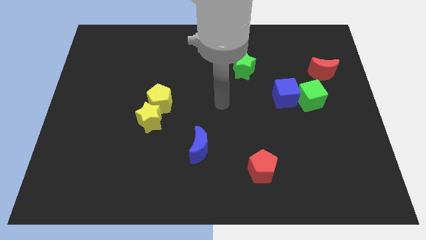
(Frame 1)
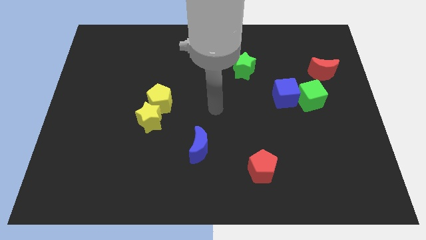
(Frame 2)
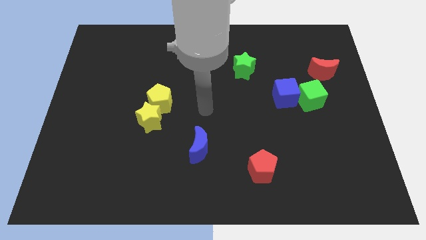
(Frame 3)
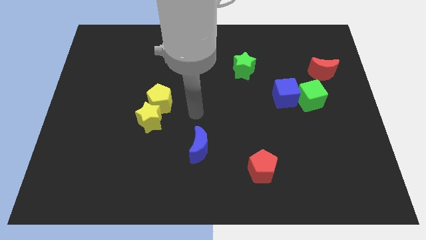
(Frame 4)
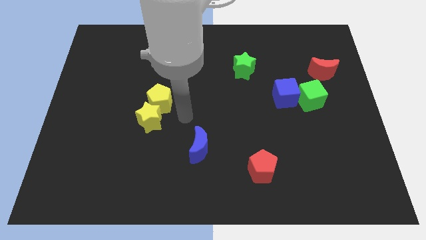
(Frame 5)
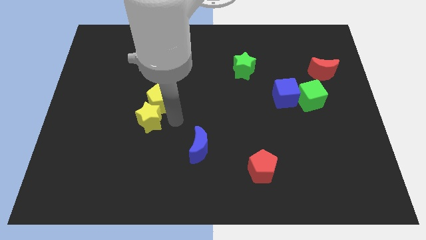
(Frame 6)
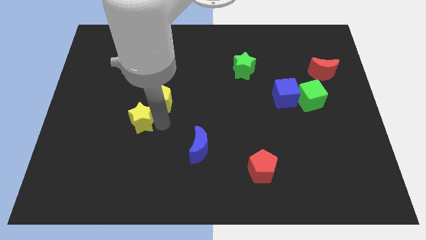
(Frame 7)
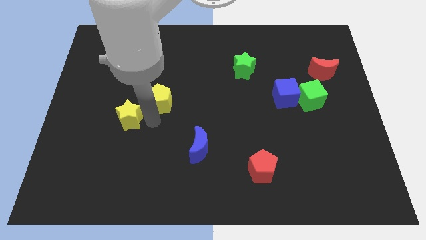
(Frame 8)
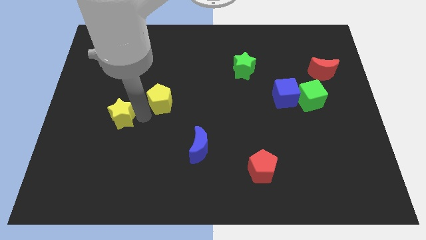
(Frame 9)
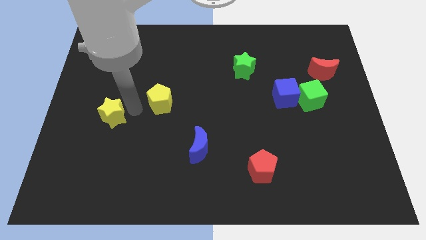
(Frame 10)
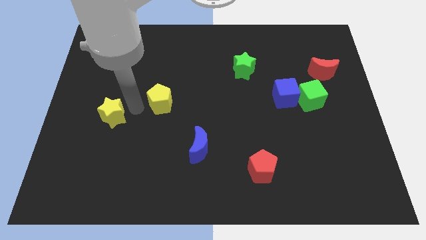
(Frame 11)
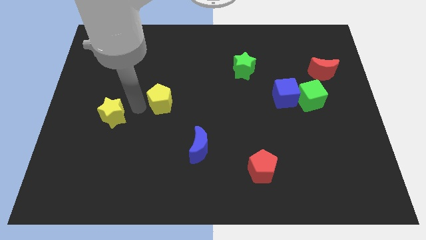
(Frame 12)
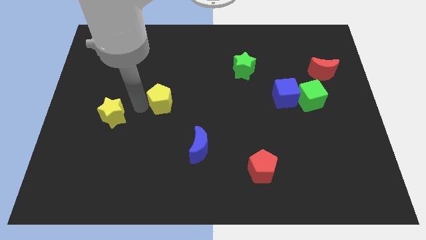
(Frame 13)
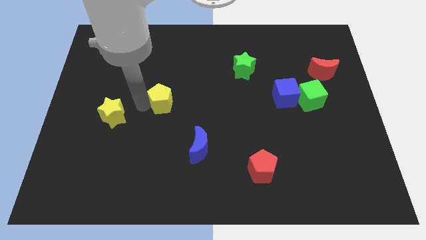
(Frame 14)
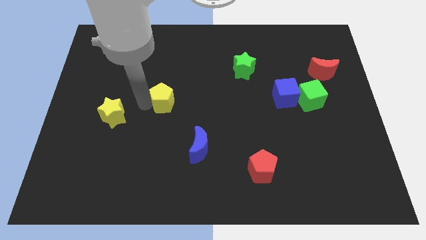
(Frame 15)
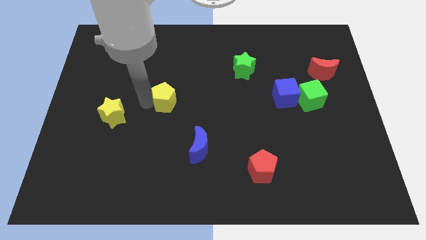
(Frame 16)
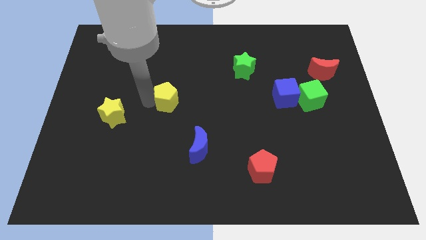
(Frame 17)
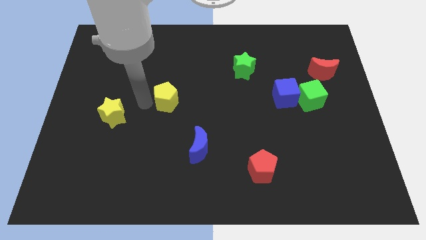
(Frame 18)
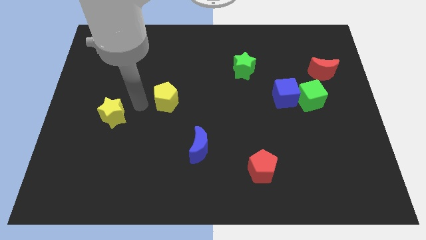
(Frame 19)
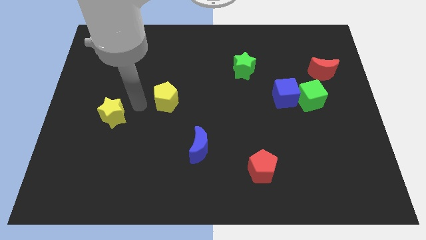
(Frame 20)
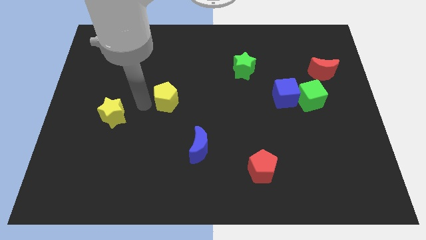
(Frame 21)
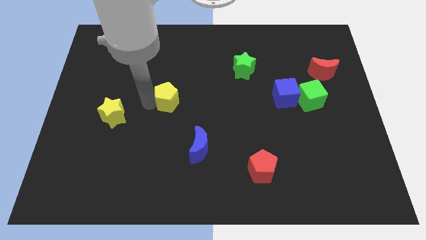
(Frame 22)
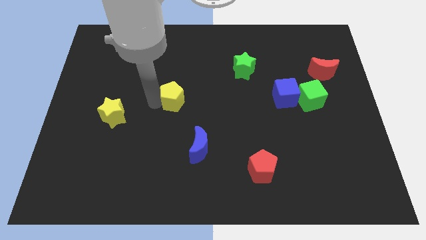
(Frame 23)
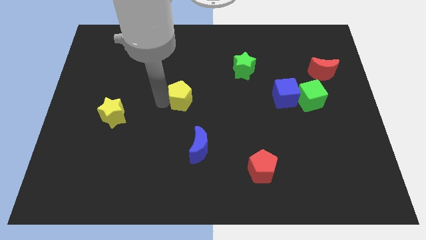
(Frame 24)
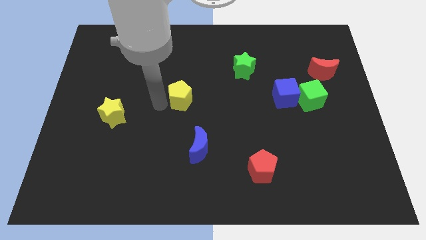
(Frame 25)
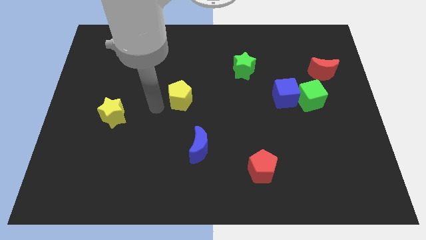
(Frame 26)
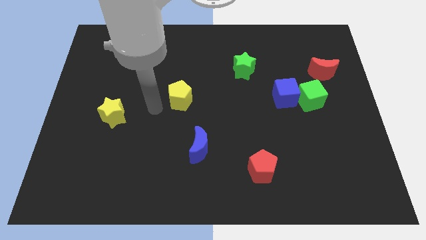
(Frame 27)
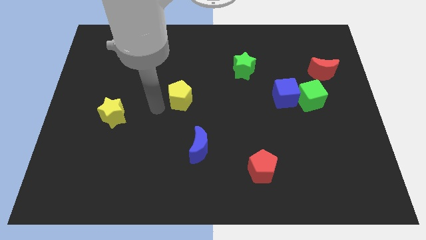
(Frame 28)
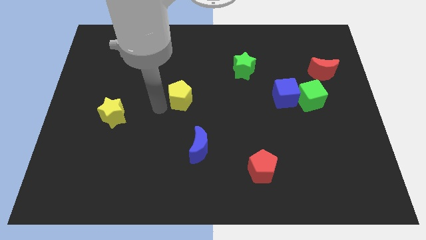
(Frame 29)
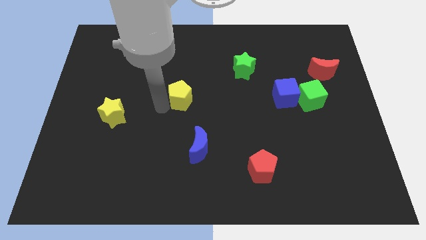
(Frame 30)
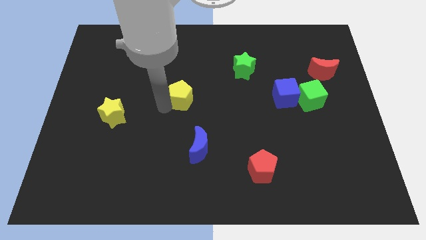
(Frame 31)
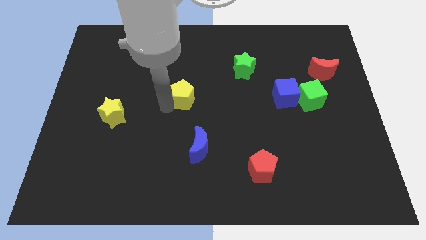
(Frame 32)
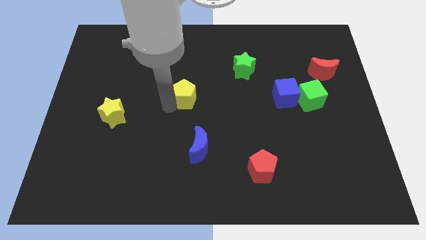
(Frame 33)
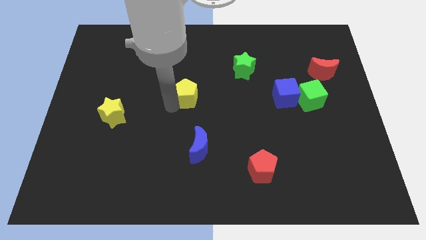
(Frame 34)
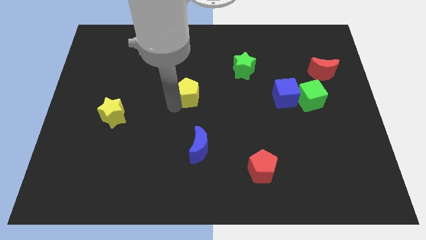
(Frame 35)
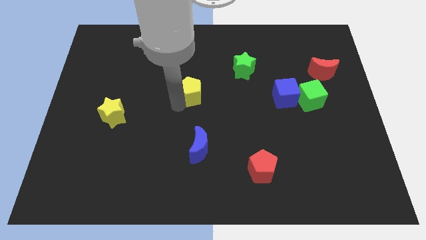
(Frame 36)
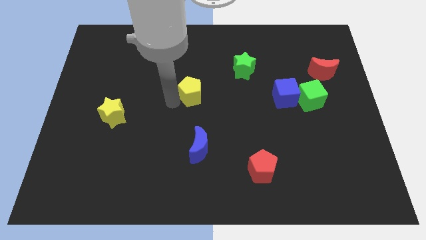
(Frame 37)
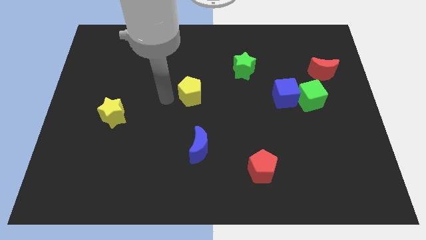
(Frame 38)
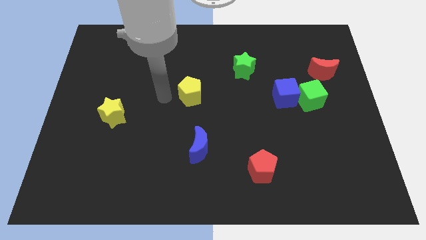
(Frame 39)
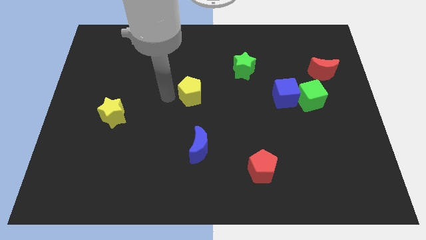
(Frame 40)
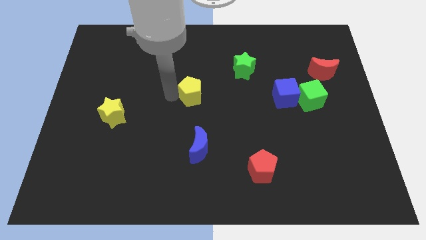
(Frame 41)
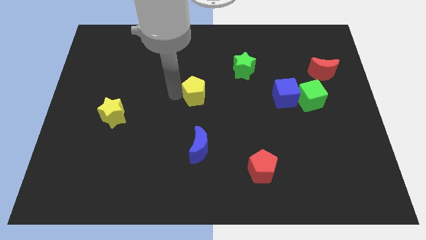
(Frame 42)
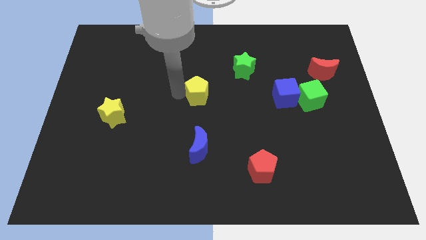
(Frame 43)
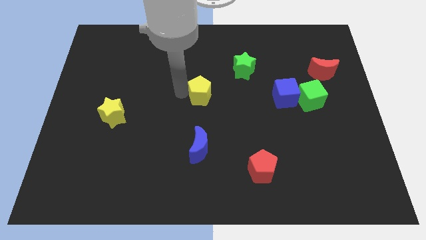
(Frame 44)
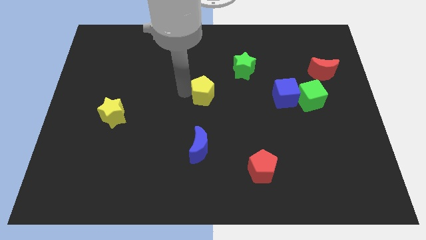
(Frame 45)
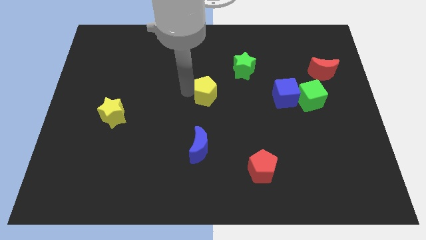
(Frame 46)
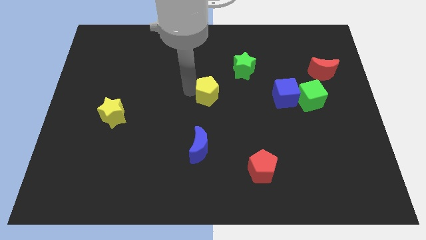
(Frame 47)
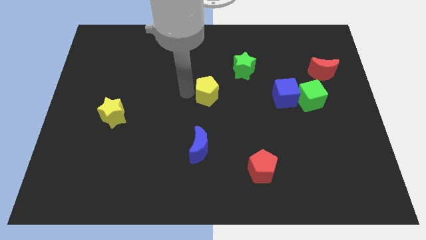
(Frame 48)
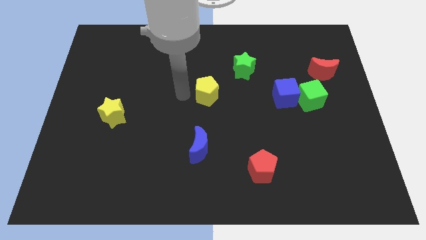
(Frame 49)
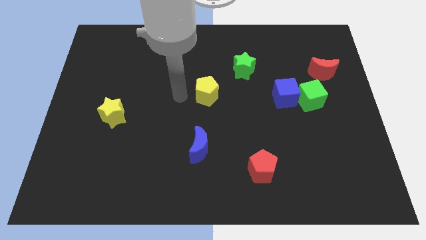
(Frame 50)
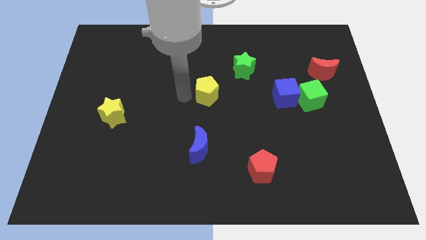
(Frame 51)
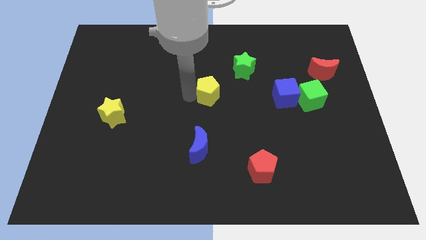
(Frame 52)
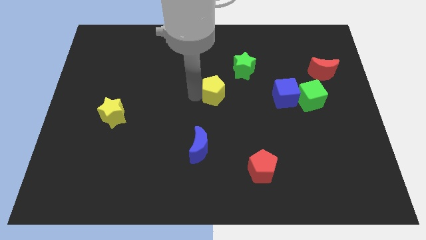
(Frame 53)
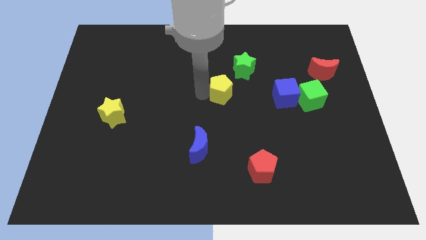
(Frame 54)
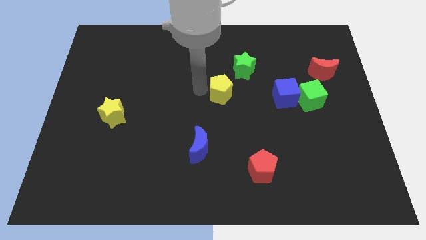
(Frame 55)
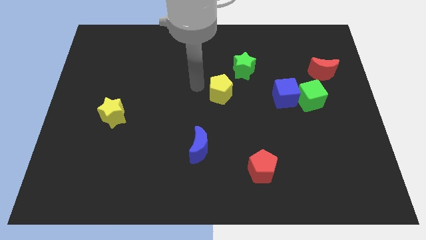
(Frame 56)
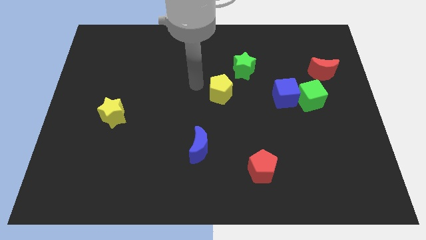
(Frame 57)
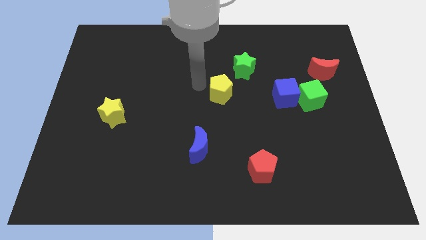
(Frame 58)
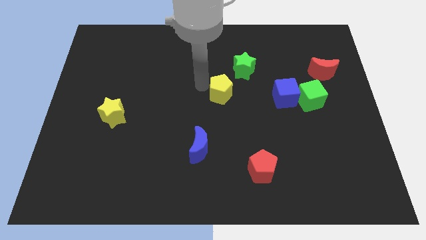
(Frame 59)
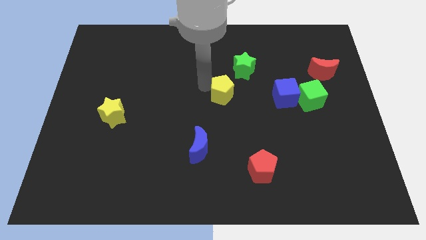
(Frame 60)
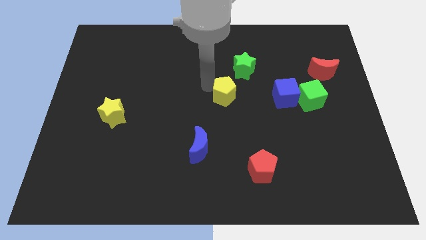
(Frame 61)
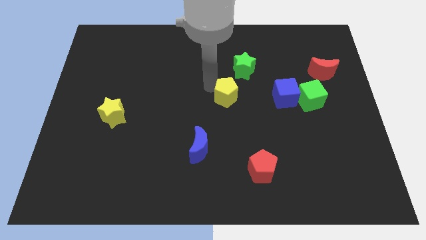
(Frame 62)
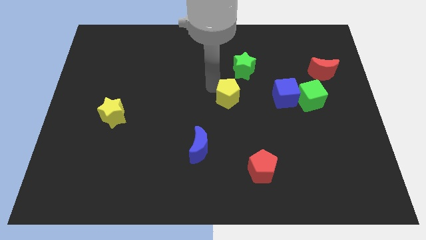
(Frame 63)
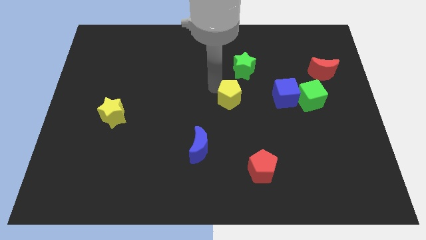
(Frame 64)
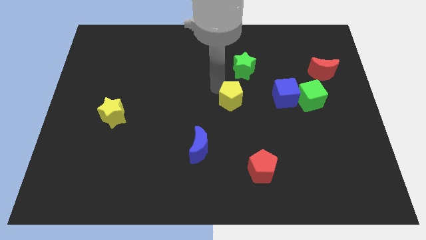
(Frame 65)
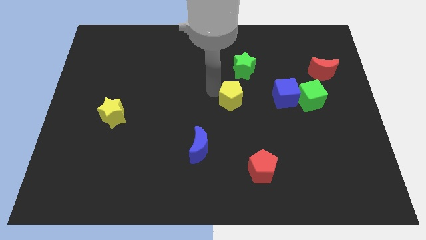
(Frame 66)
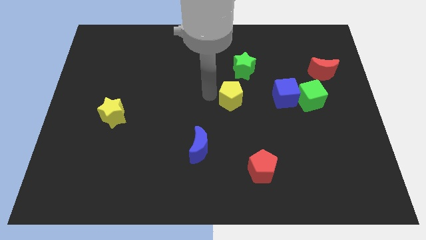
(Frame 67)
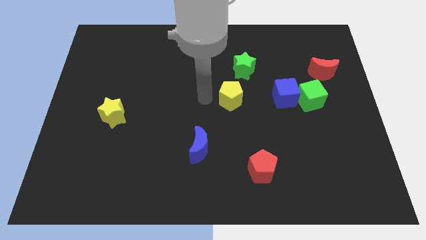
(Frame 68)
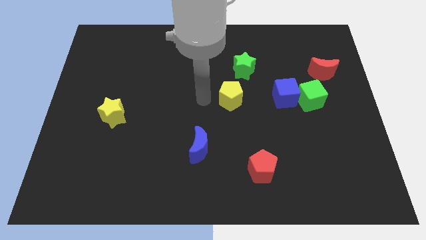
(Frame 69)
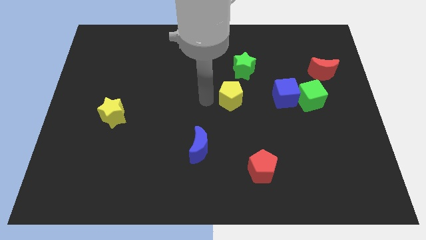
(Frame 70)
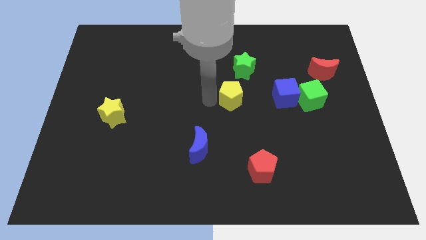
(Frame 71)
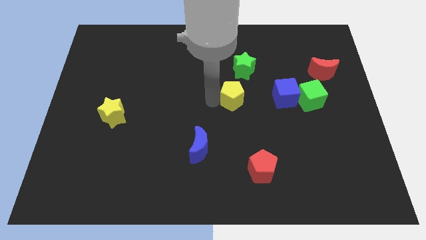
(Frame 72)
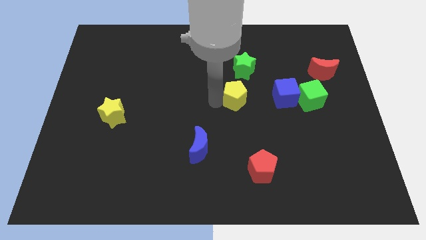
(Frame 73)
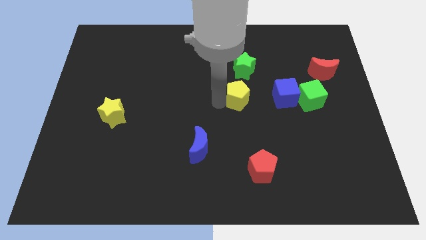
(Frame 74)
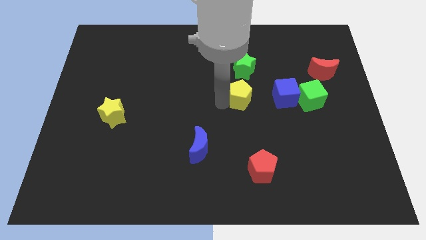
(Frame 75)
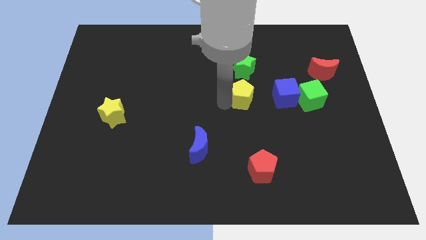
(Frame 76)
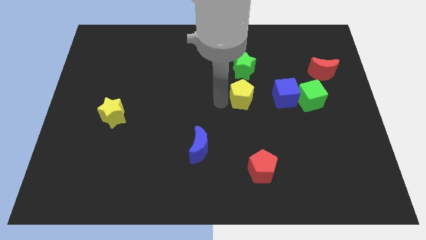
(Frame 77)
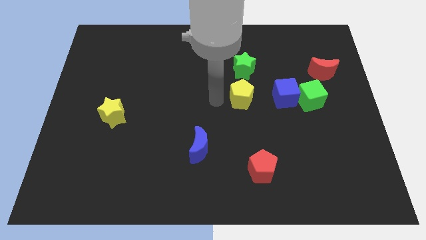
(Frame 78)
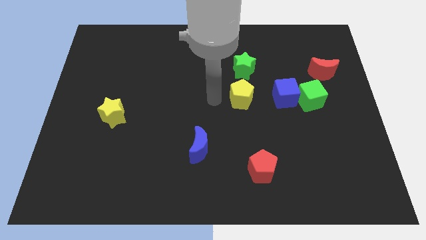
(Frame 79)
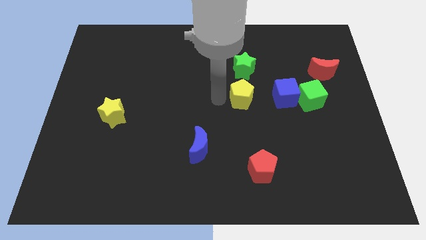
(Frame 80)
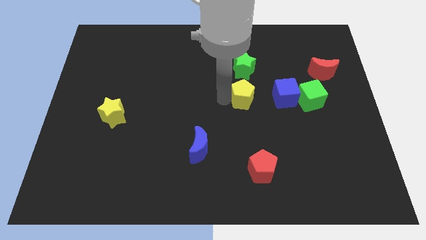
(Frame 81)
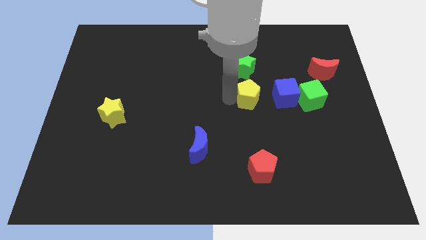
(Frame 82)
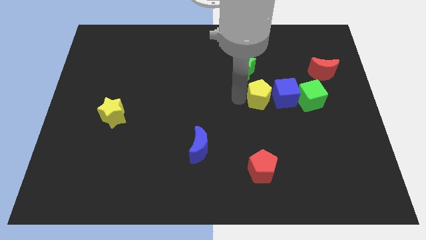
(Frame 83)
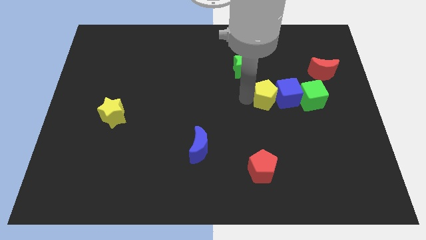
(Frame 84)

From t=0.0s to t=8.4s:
move the yellow pentagon towards the blue cube
